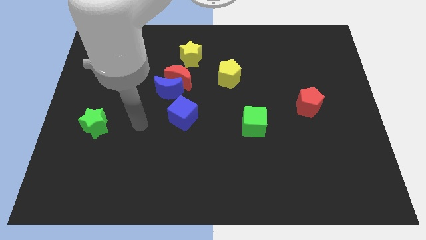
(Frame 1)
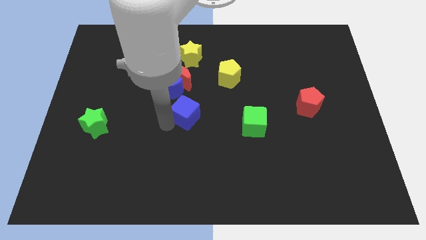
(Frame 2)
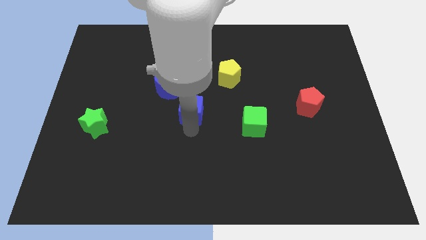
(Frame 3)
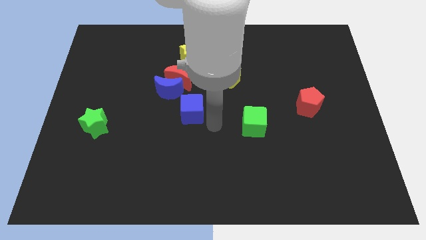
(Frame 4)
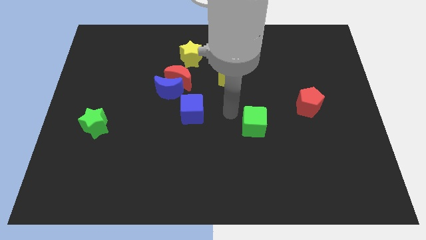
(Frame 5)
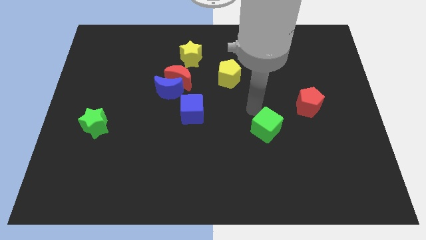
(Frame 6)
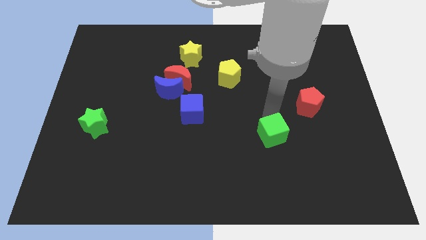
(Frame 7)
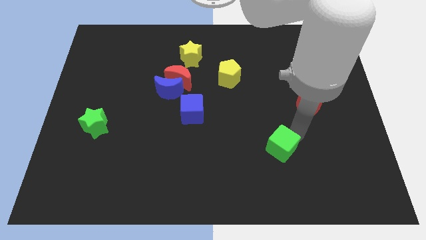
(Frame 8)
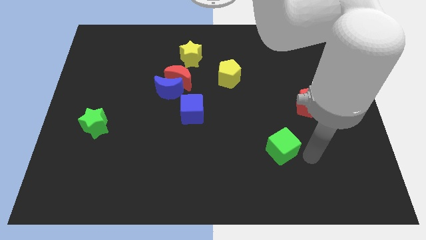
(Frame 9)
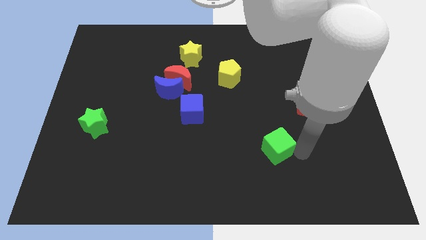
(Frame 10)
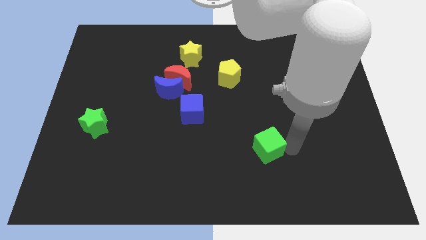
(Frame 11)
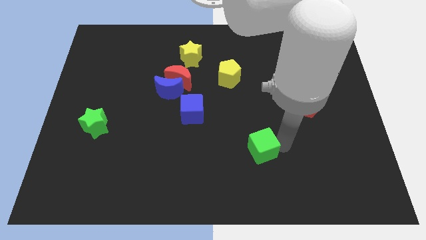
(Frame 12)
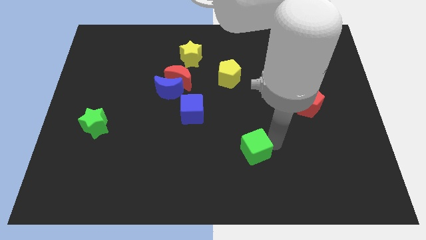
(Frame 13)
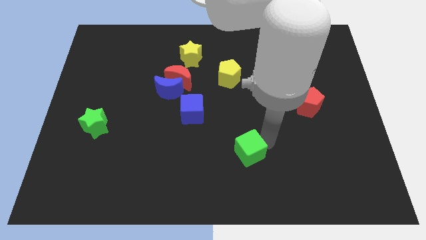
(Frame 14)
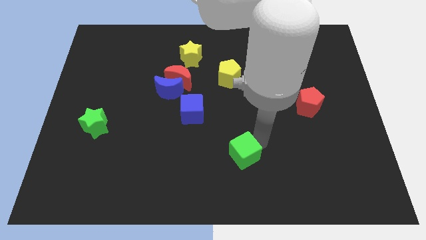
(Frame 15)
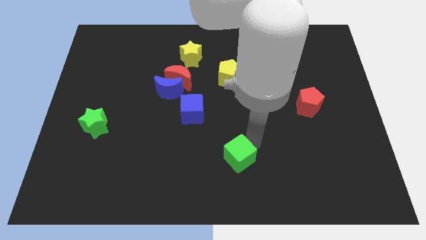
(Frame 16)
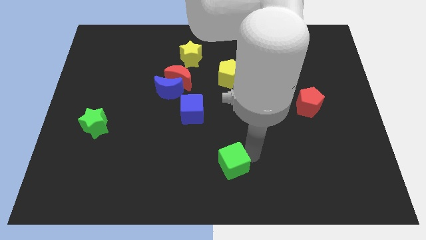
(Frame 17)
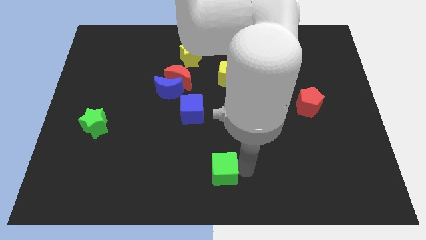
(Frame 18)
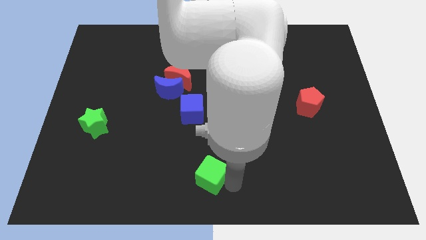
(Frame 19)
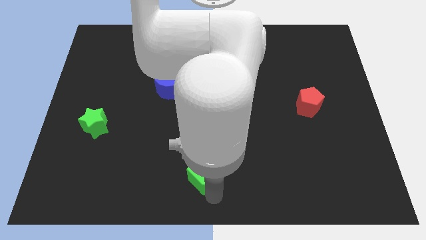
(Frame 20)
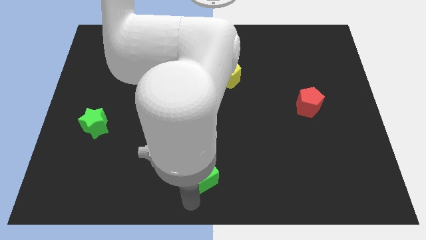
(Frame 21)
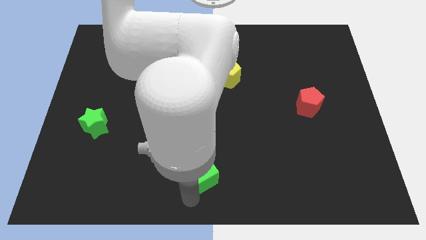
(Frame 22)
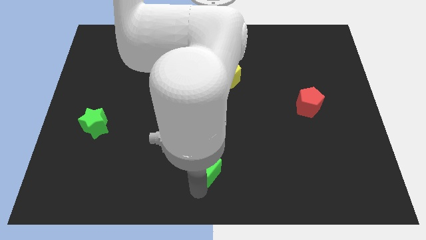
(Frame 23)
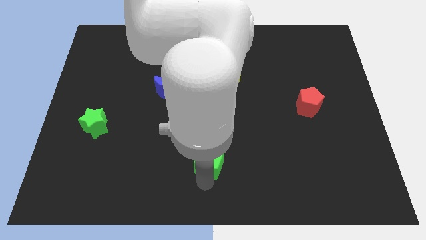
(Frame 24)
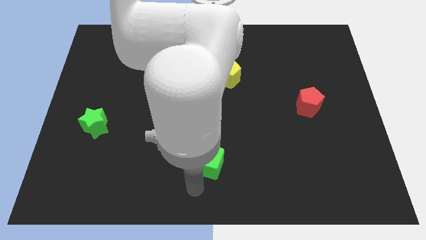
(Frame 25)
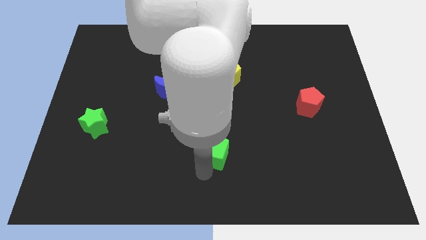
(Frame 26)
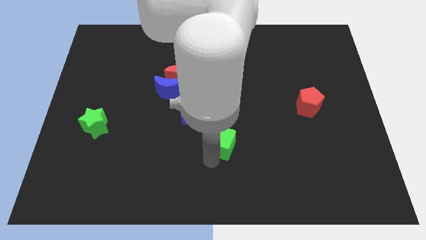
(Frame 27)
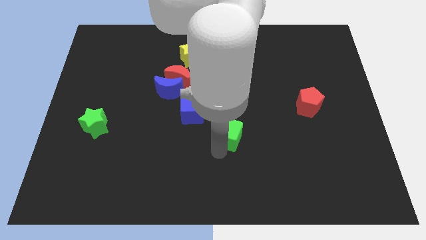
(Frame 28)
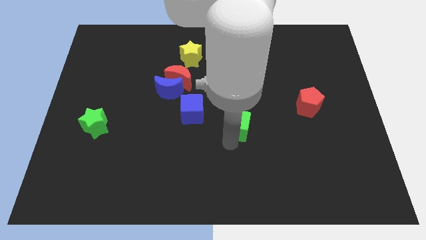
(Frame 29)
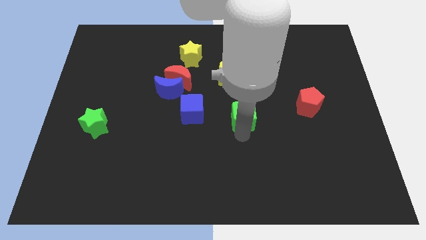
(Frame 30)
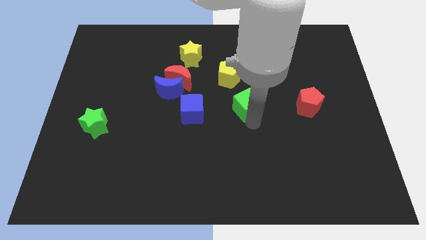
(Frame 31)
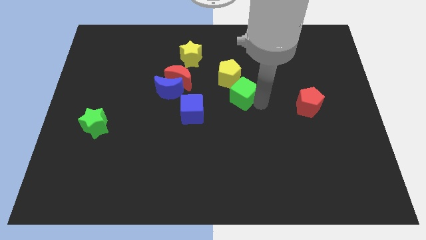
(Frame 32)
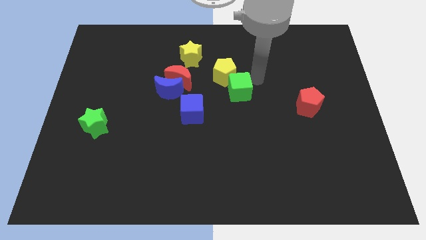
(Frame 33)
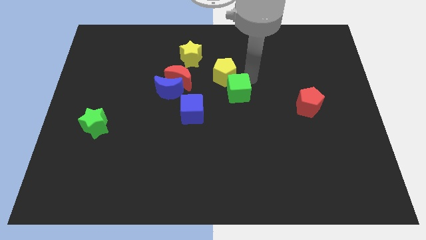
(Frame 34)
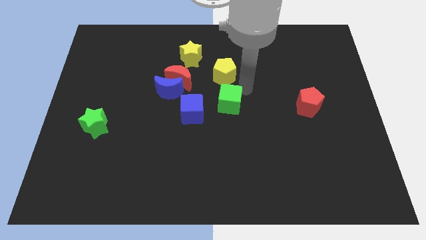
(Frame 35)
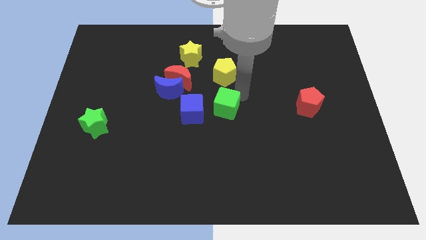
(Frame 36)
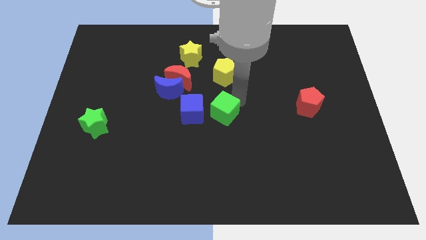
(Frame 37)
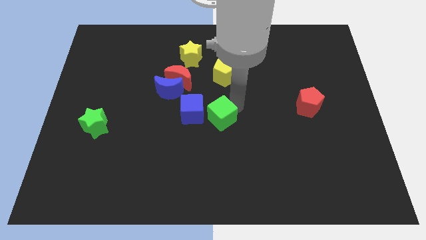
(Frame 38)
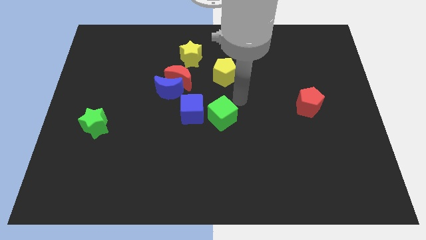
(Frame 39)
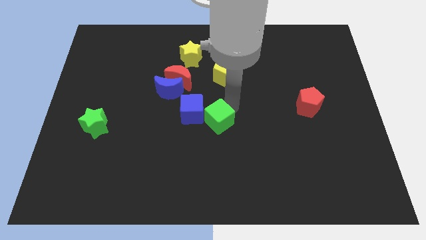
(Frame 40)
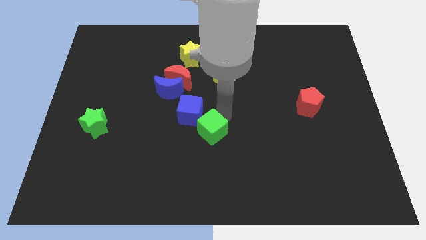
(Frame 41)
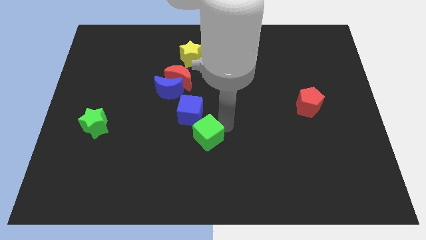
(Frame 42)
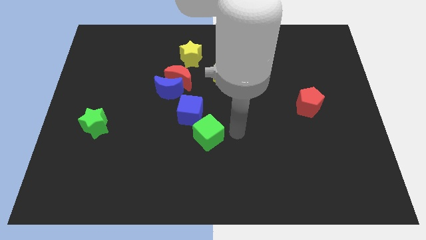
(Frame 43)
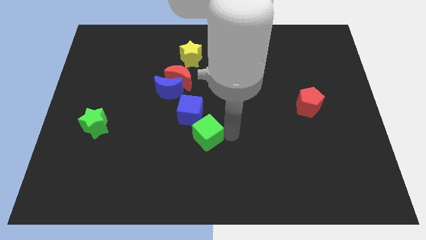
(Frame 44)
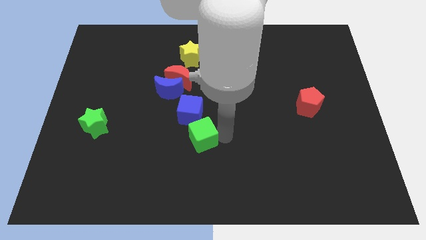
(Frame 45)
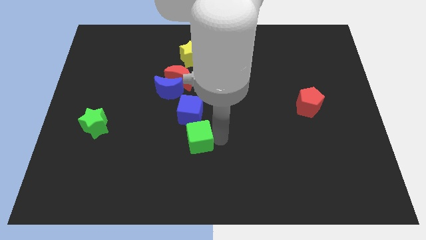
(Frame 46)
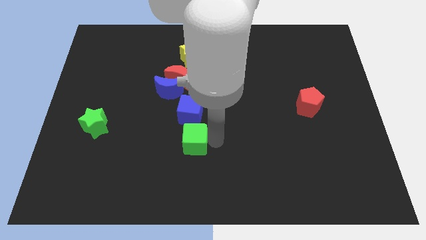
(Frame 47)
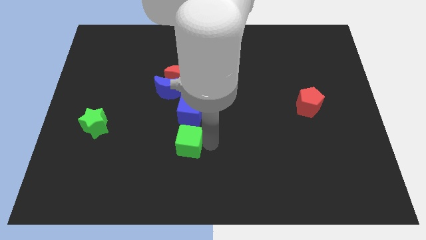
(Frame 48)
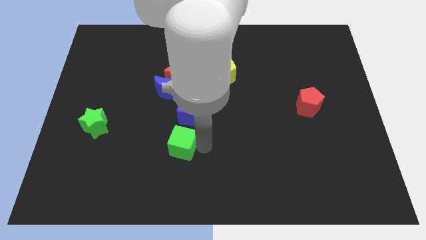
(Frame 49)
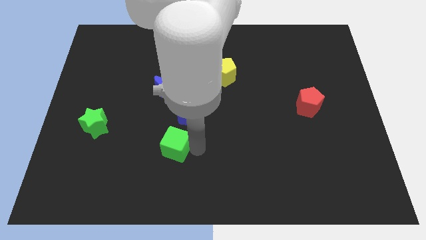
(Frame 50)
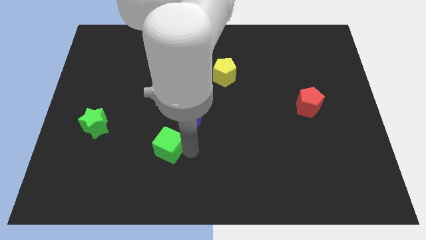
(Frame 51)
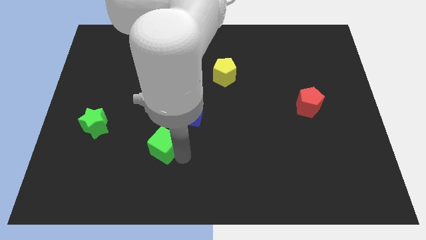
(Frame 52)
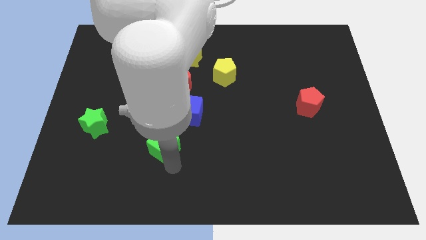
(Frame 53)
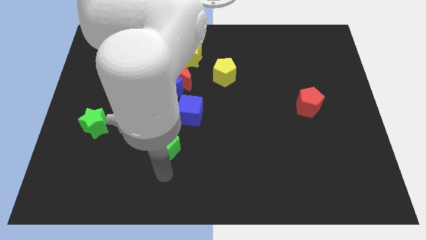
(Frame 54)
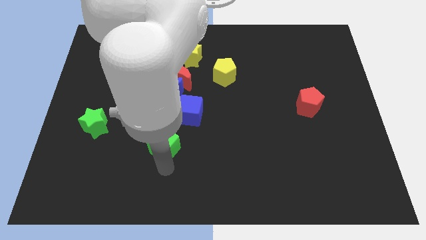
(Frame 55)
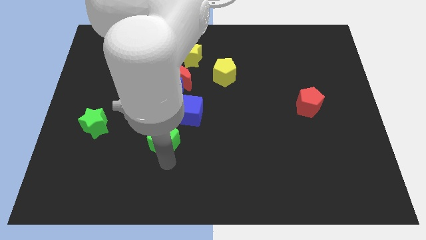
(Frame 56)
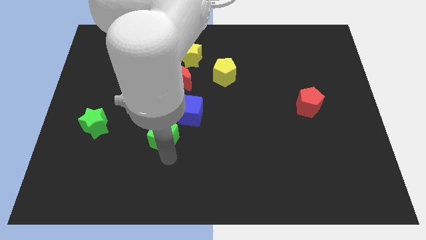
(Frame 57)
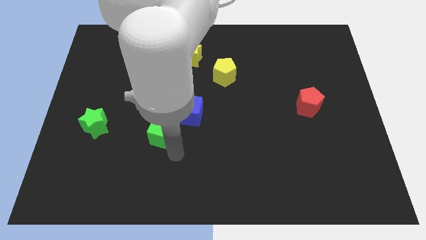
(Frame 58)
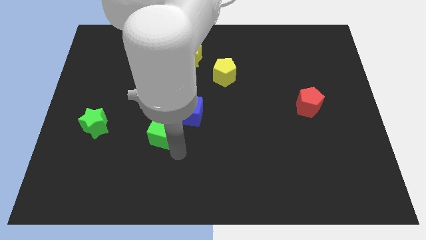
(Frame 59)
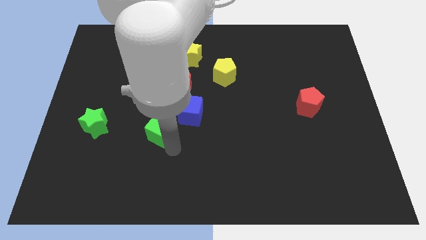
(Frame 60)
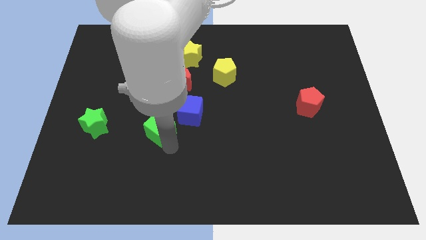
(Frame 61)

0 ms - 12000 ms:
push the green cube just left of the blue cube
